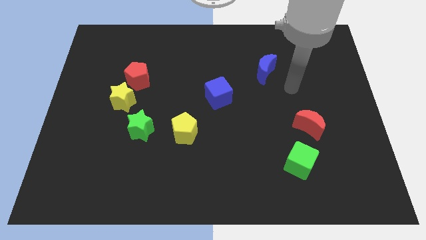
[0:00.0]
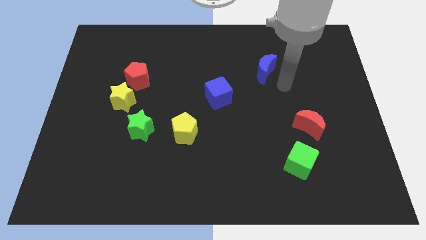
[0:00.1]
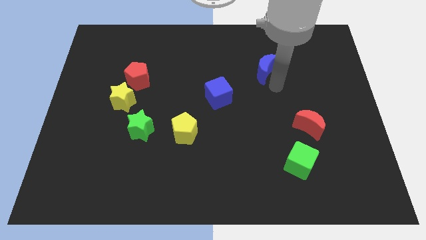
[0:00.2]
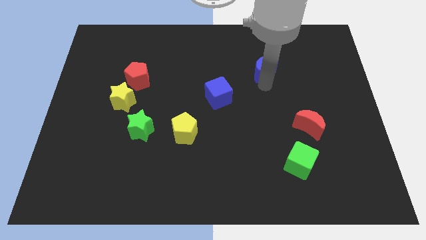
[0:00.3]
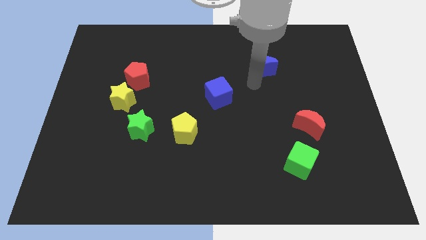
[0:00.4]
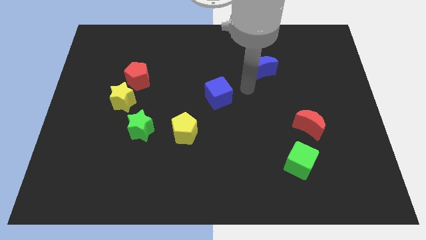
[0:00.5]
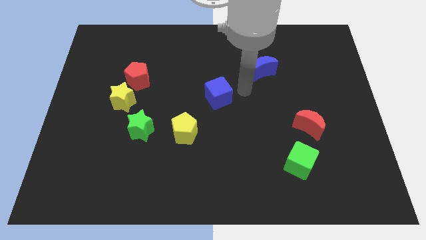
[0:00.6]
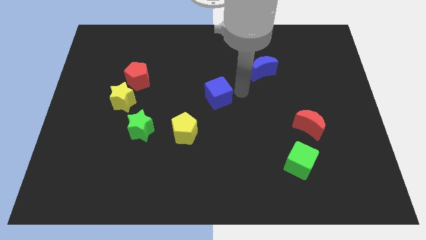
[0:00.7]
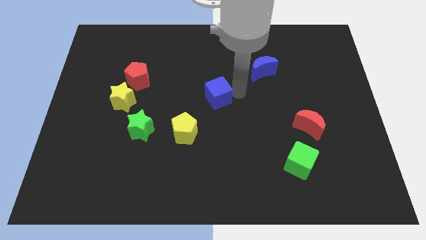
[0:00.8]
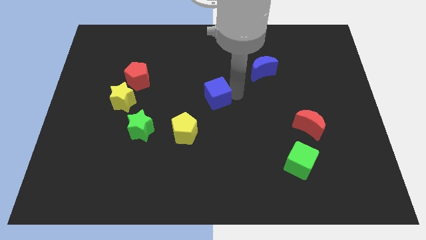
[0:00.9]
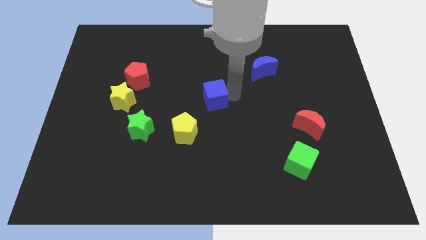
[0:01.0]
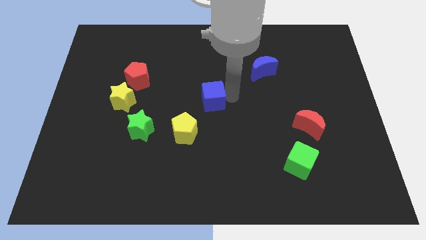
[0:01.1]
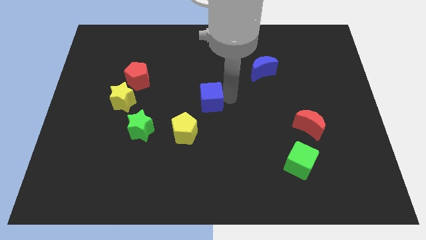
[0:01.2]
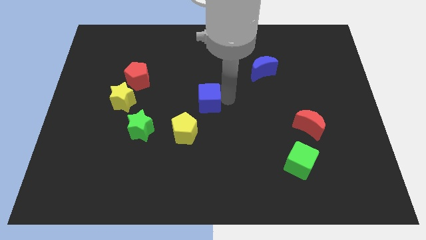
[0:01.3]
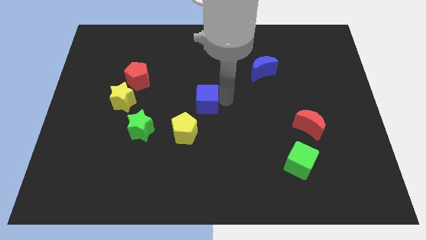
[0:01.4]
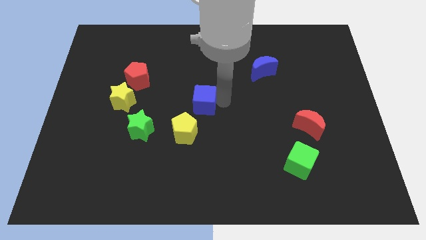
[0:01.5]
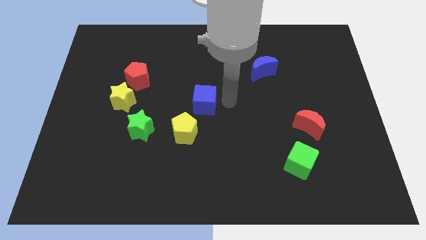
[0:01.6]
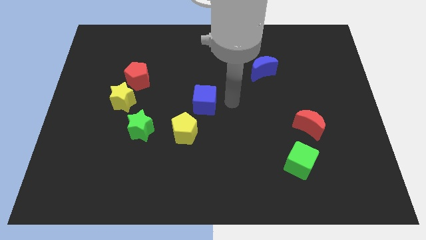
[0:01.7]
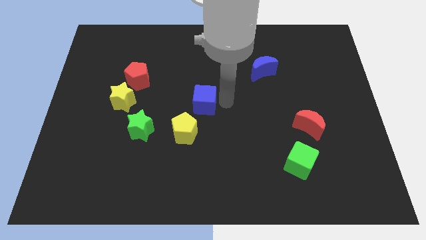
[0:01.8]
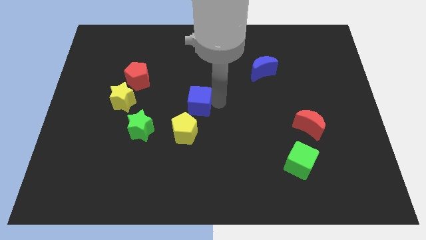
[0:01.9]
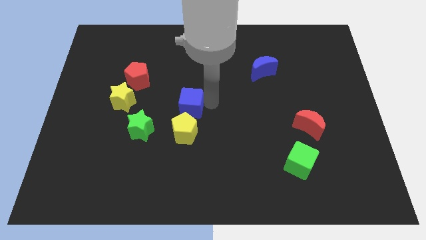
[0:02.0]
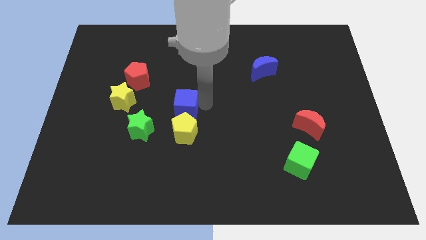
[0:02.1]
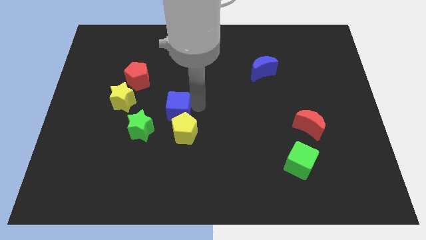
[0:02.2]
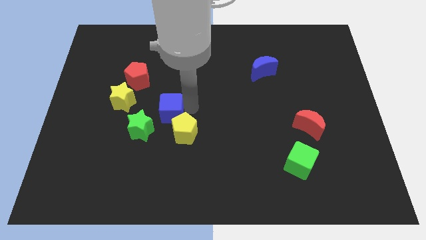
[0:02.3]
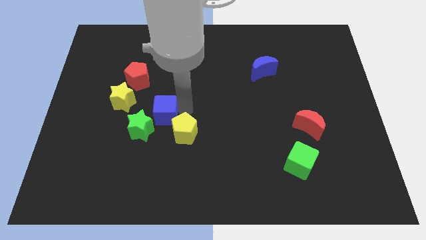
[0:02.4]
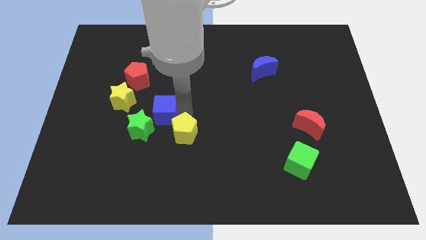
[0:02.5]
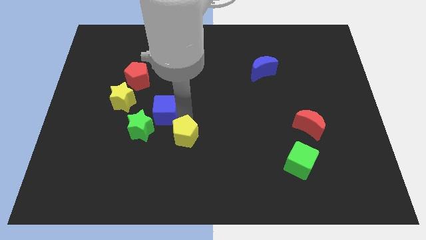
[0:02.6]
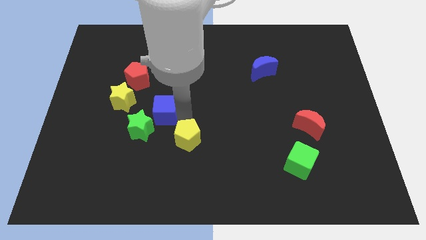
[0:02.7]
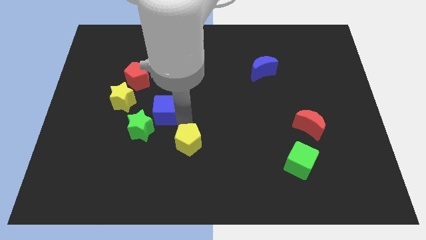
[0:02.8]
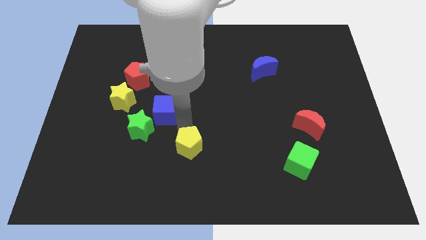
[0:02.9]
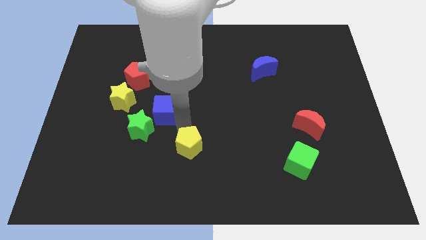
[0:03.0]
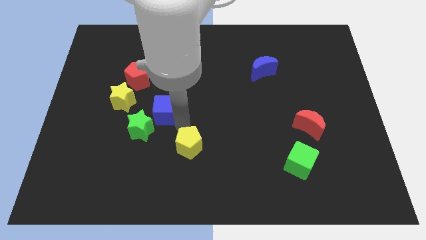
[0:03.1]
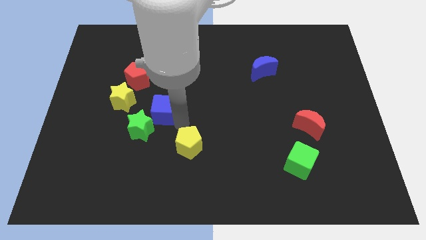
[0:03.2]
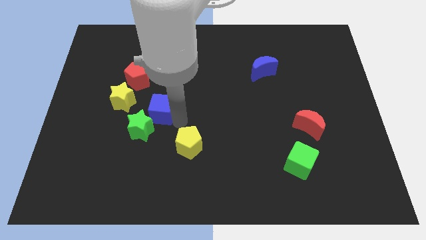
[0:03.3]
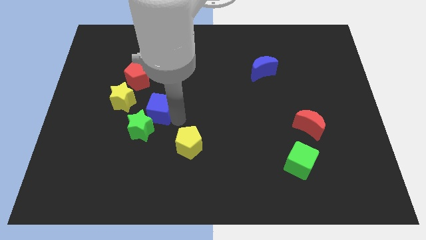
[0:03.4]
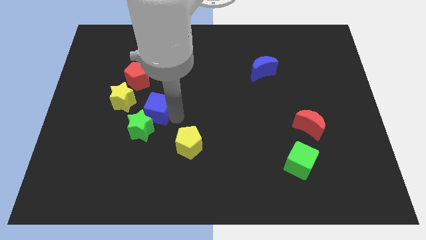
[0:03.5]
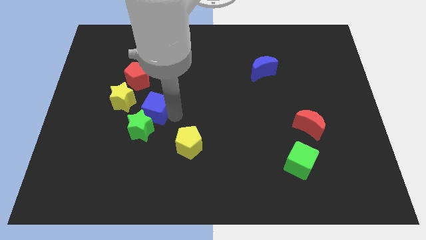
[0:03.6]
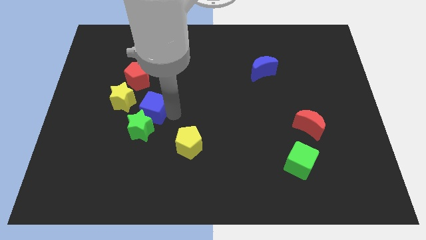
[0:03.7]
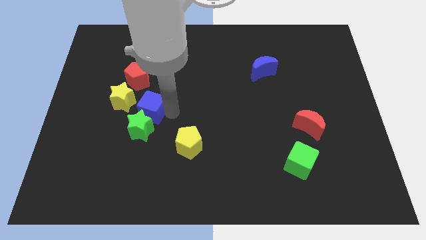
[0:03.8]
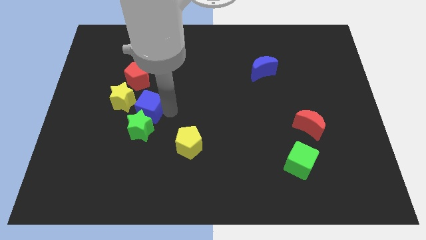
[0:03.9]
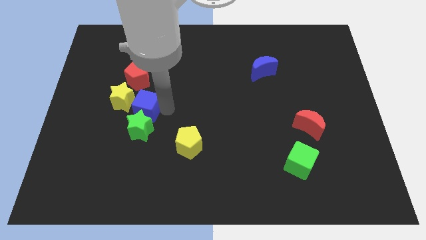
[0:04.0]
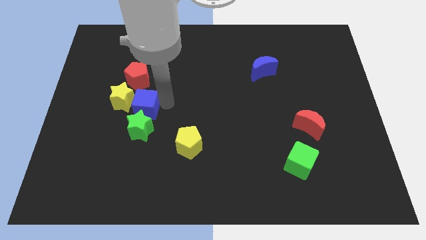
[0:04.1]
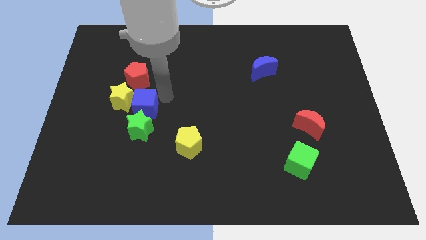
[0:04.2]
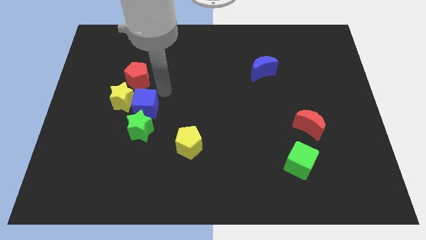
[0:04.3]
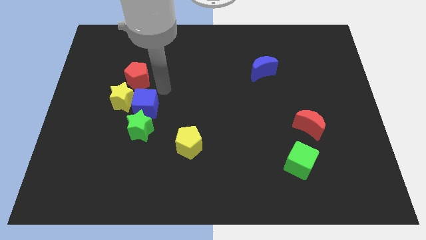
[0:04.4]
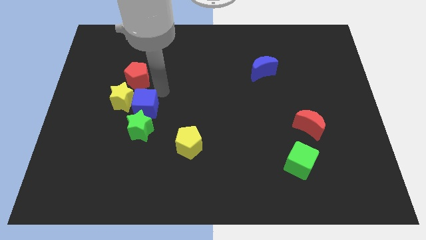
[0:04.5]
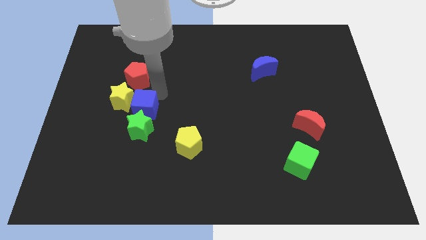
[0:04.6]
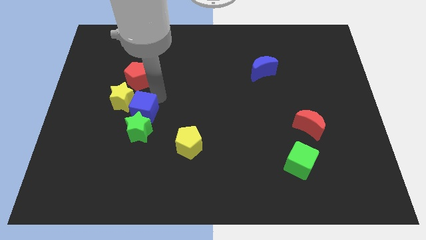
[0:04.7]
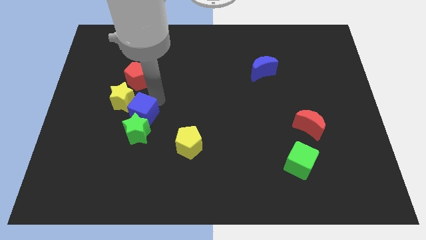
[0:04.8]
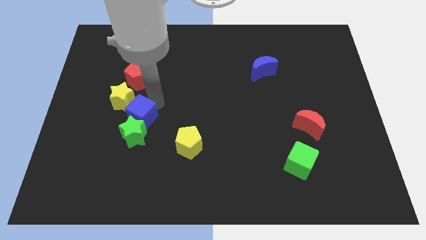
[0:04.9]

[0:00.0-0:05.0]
push the blue cube to the bottom of the yellow star

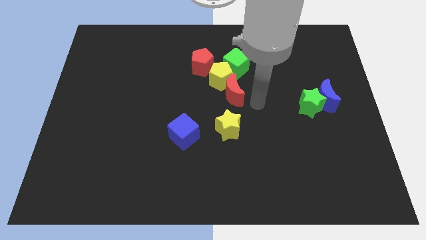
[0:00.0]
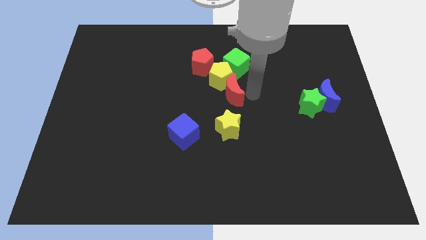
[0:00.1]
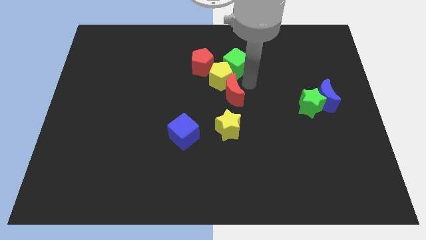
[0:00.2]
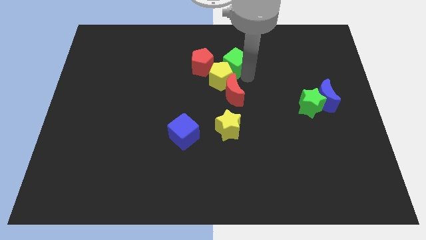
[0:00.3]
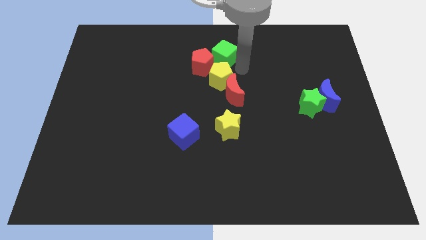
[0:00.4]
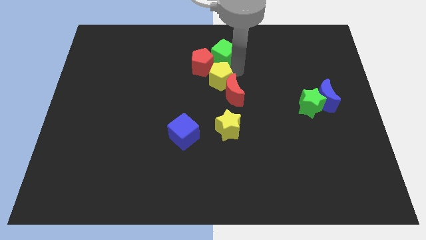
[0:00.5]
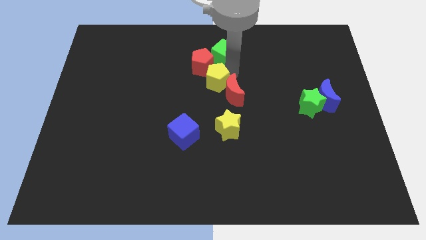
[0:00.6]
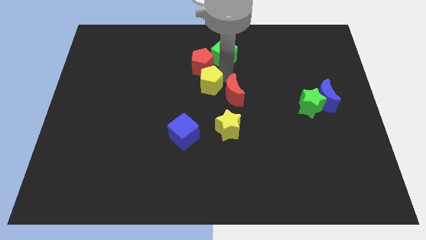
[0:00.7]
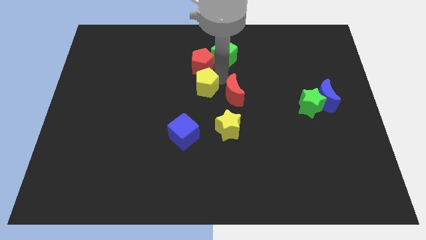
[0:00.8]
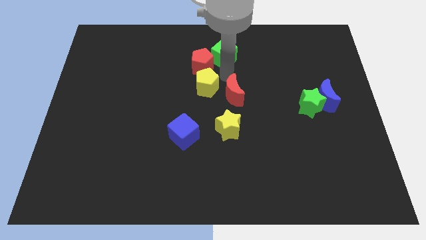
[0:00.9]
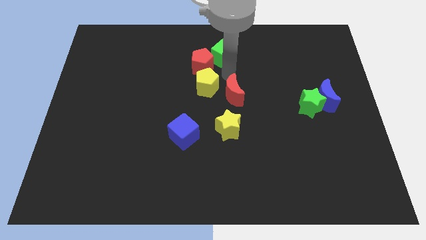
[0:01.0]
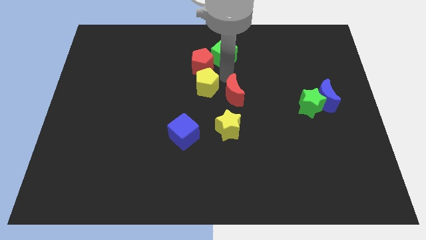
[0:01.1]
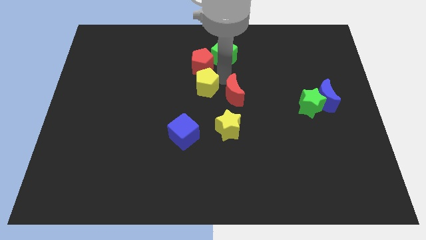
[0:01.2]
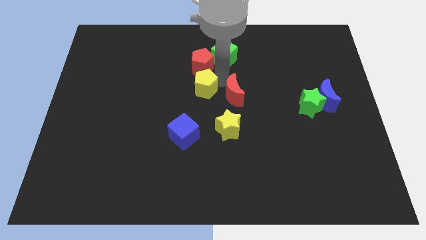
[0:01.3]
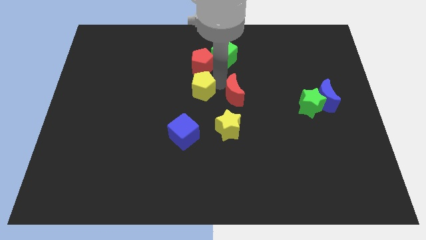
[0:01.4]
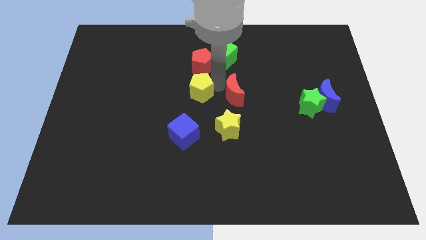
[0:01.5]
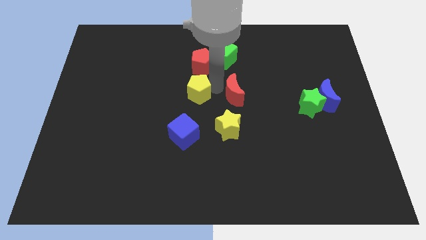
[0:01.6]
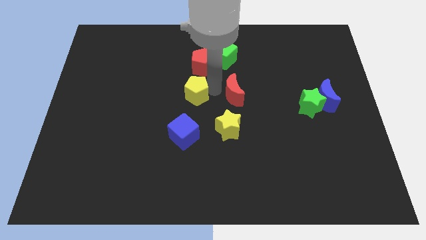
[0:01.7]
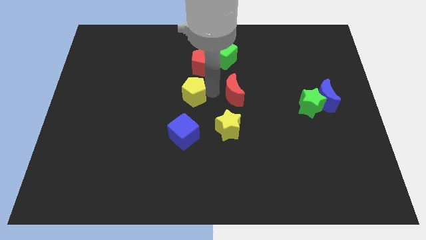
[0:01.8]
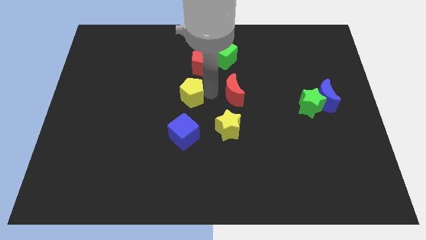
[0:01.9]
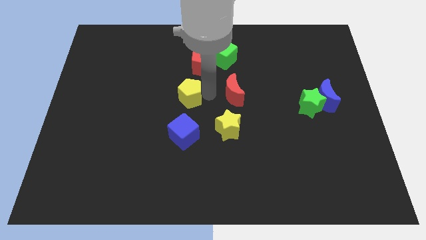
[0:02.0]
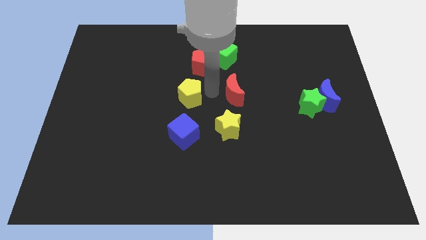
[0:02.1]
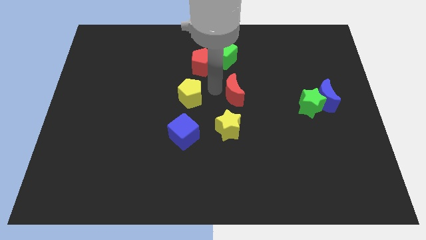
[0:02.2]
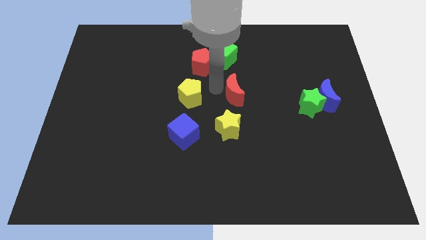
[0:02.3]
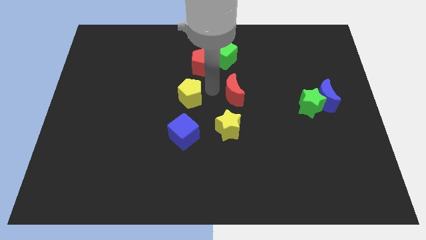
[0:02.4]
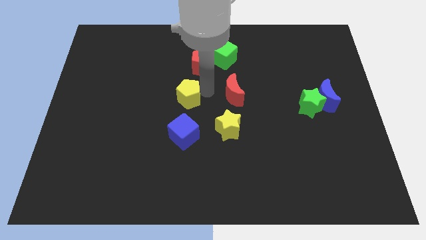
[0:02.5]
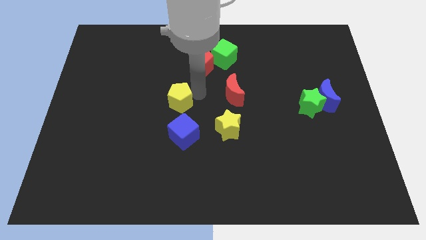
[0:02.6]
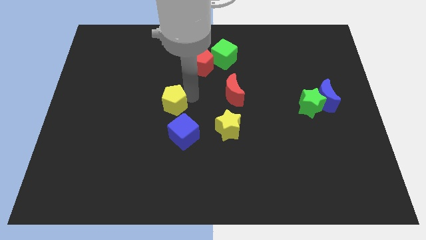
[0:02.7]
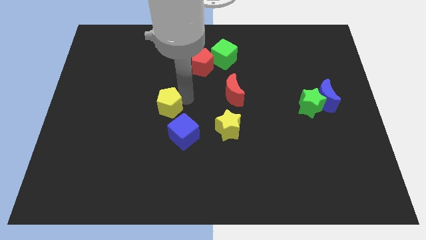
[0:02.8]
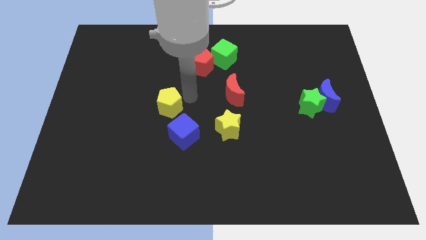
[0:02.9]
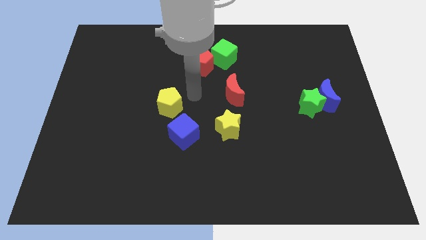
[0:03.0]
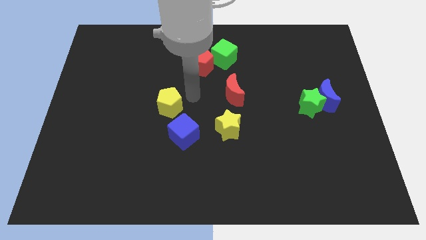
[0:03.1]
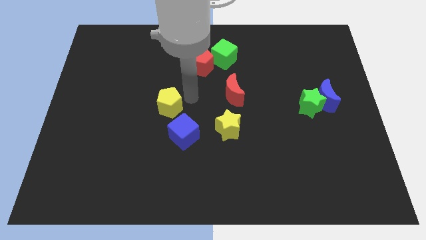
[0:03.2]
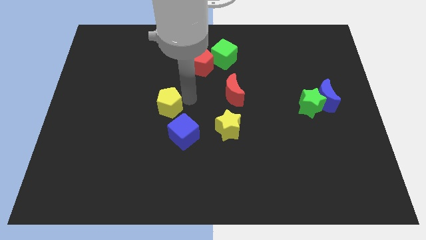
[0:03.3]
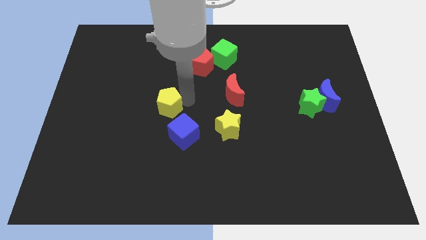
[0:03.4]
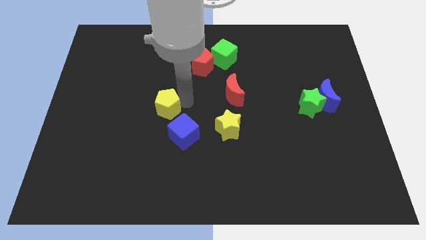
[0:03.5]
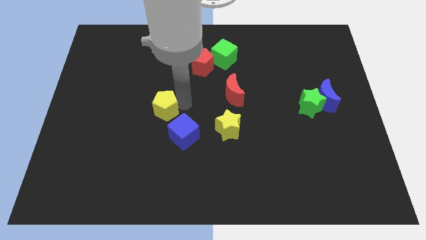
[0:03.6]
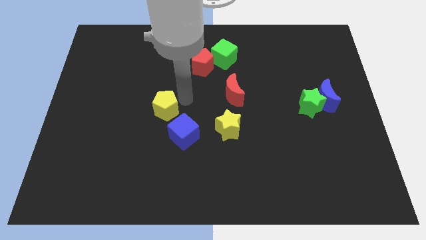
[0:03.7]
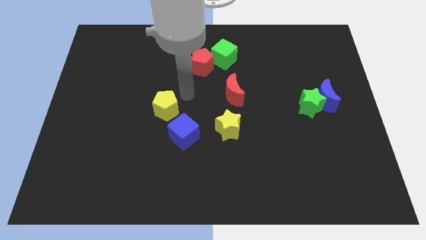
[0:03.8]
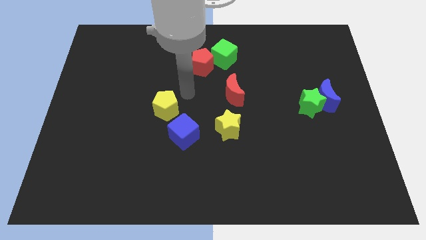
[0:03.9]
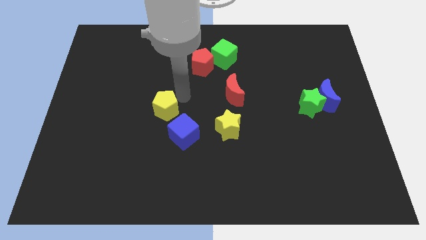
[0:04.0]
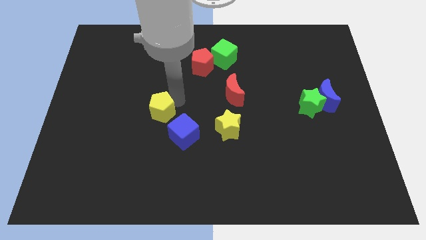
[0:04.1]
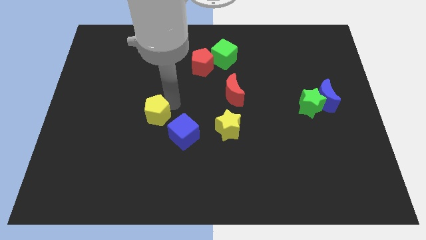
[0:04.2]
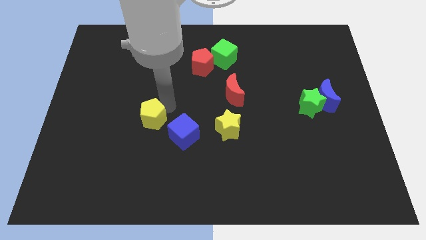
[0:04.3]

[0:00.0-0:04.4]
push the yellow pentagon to the left side of the blue cube
